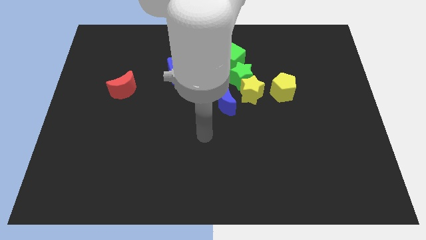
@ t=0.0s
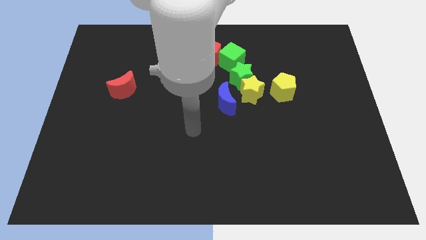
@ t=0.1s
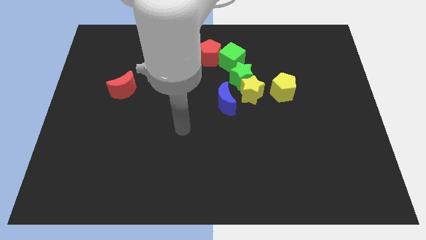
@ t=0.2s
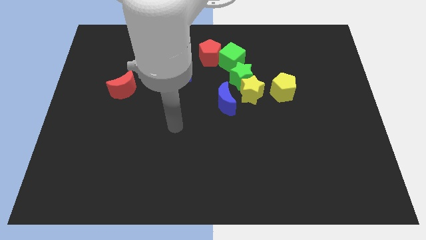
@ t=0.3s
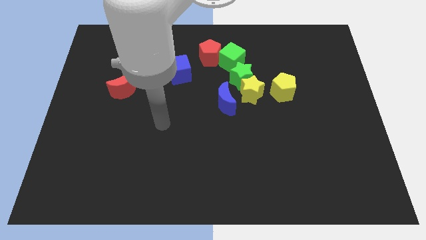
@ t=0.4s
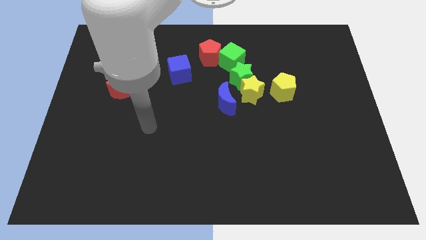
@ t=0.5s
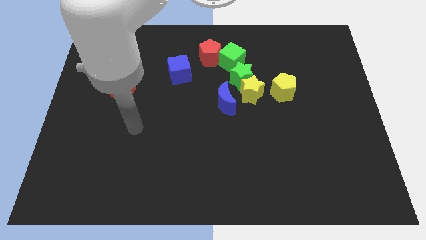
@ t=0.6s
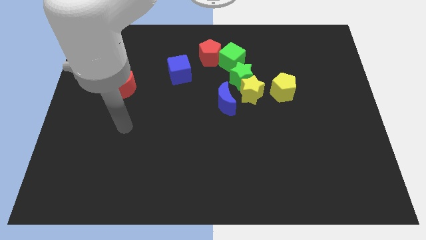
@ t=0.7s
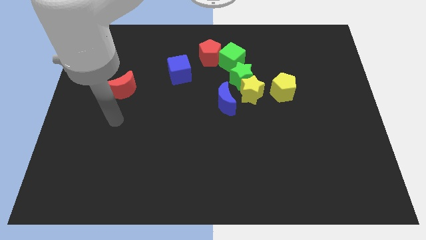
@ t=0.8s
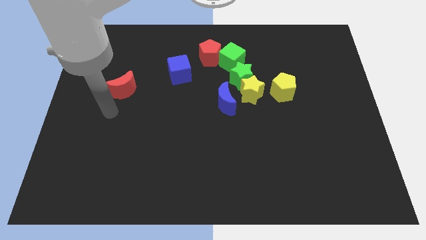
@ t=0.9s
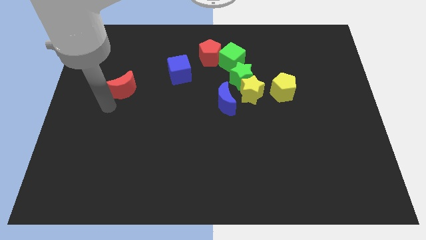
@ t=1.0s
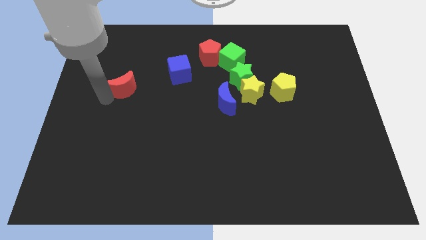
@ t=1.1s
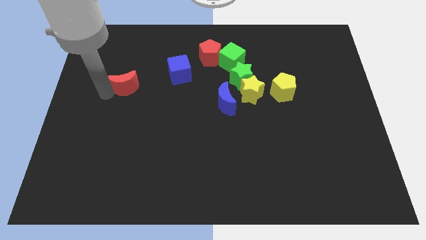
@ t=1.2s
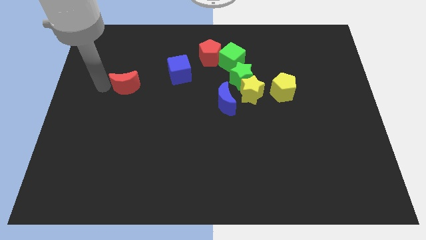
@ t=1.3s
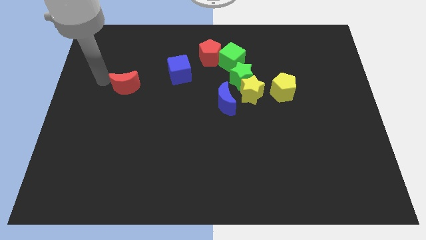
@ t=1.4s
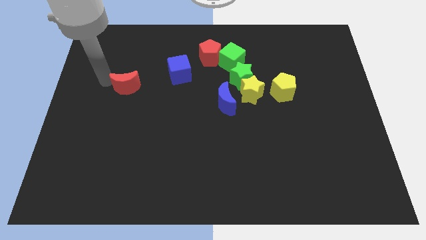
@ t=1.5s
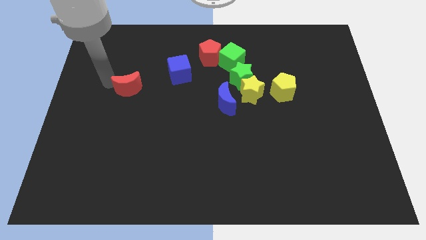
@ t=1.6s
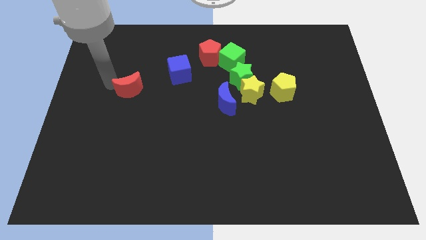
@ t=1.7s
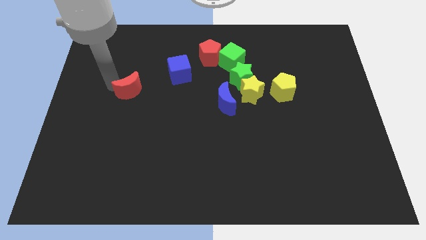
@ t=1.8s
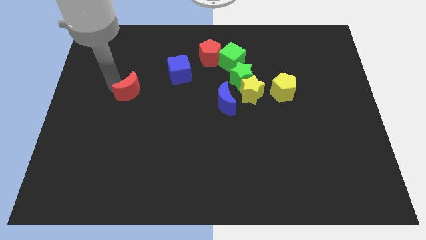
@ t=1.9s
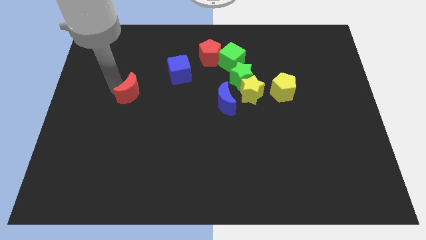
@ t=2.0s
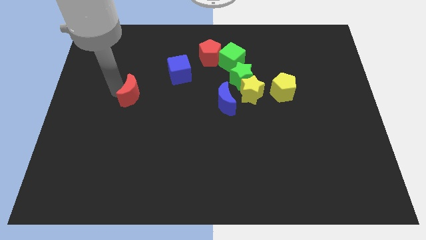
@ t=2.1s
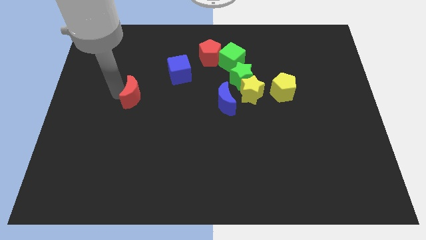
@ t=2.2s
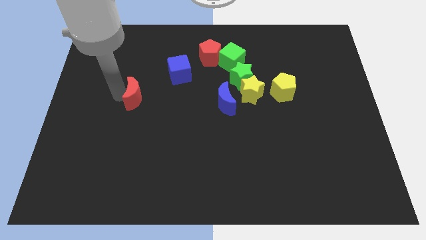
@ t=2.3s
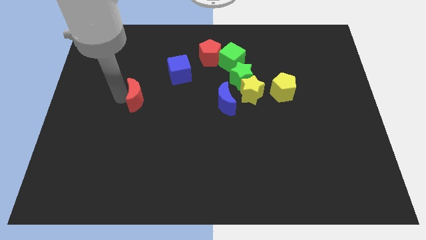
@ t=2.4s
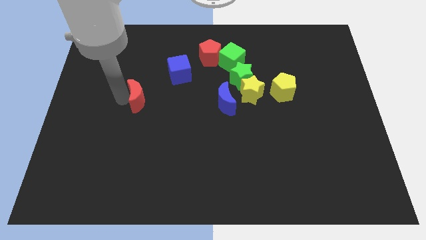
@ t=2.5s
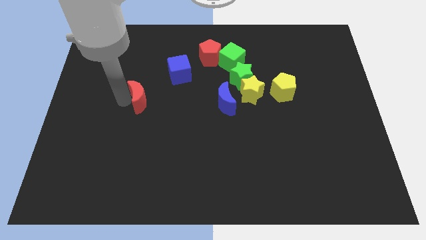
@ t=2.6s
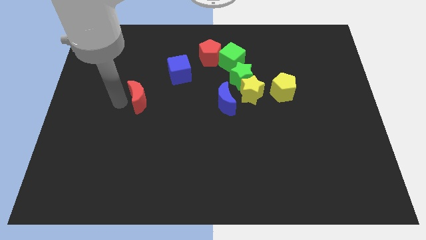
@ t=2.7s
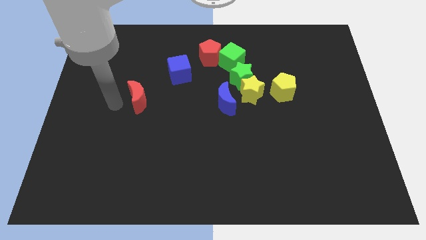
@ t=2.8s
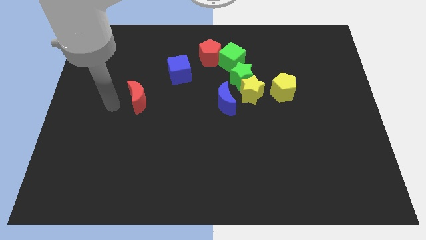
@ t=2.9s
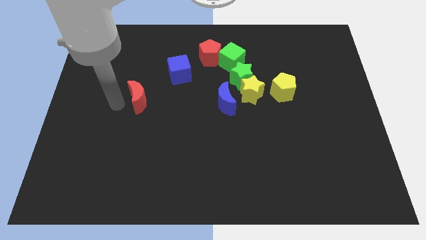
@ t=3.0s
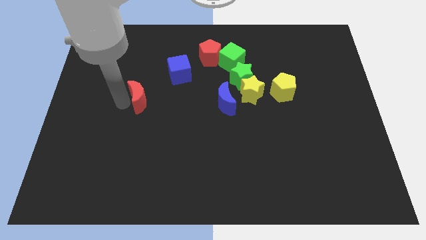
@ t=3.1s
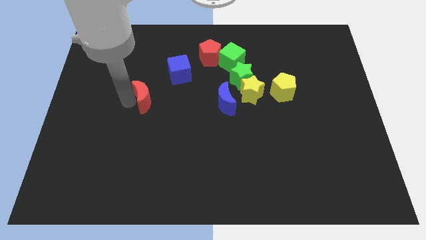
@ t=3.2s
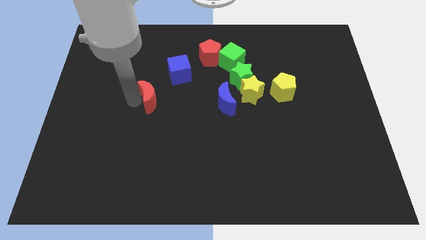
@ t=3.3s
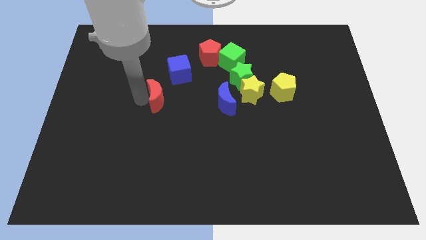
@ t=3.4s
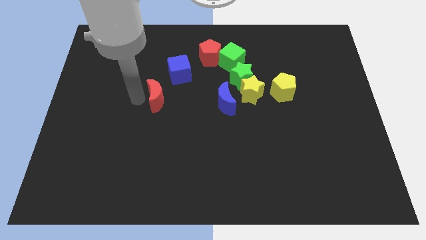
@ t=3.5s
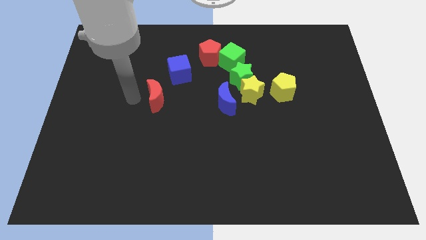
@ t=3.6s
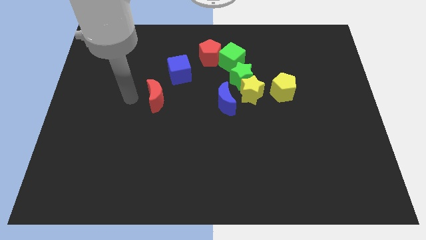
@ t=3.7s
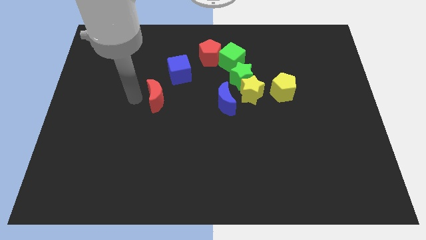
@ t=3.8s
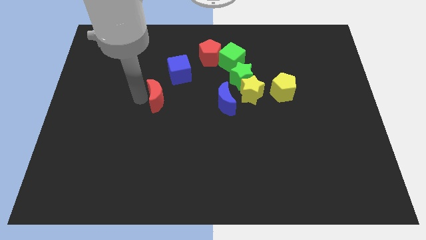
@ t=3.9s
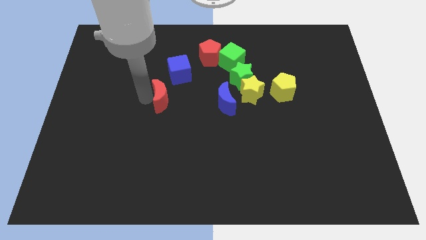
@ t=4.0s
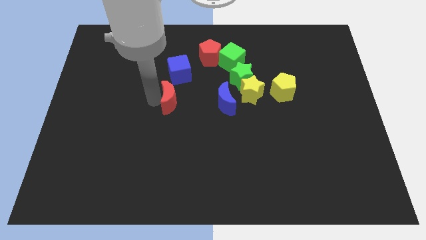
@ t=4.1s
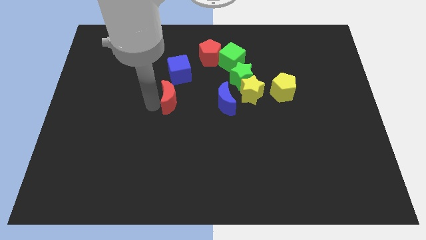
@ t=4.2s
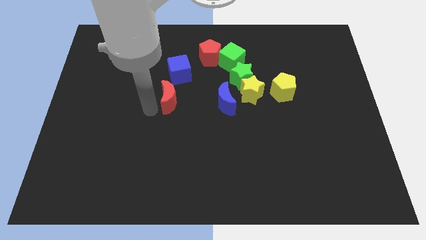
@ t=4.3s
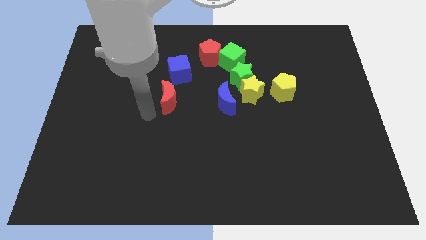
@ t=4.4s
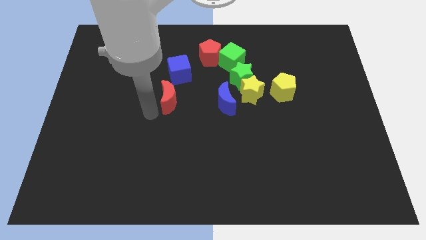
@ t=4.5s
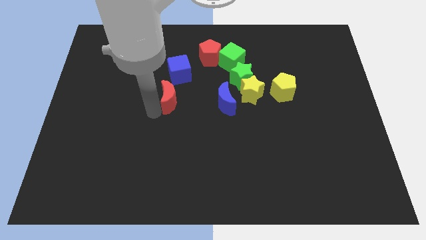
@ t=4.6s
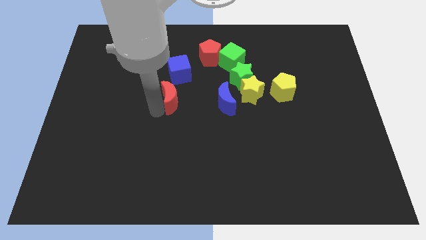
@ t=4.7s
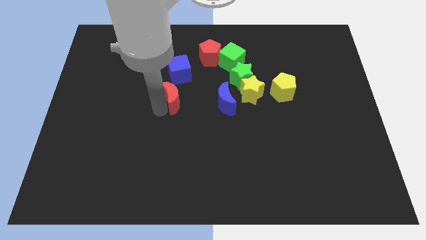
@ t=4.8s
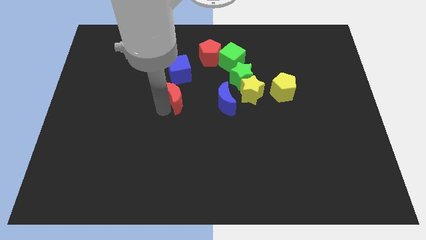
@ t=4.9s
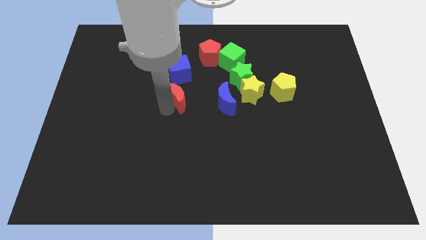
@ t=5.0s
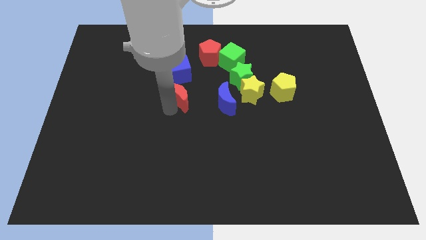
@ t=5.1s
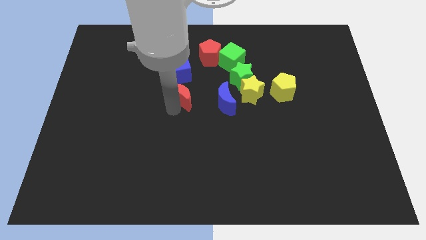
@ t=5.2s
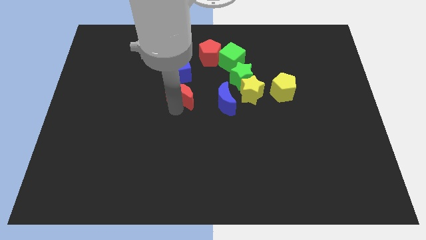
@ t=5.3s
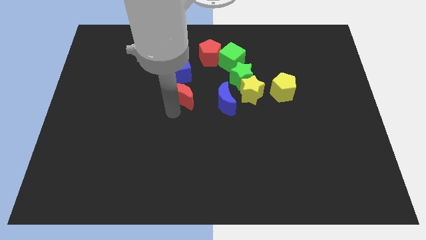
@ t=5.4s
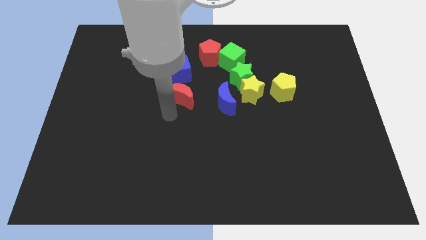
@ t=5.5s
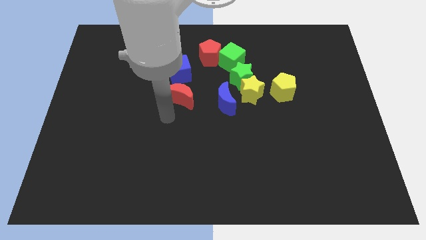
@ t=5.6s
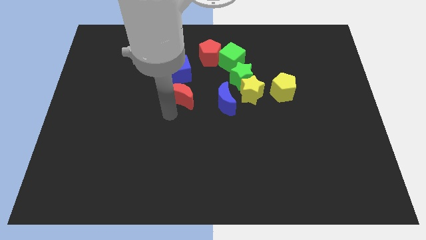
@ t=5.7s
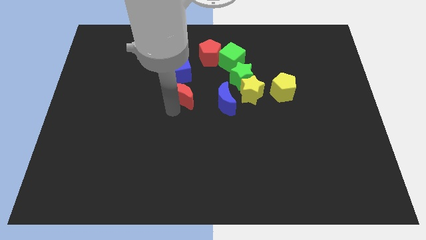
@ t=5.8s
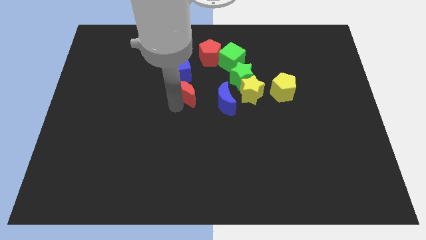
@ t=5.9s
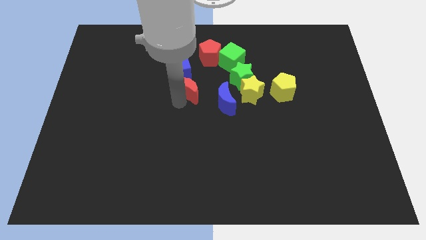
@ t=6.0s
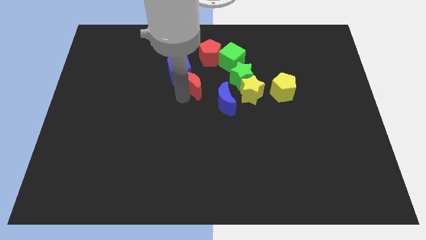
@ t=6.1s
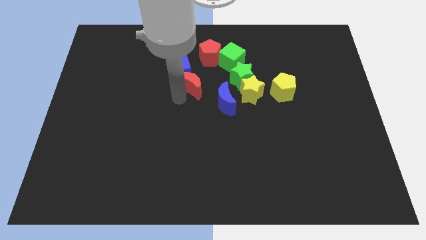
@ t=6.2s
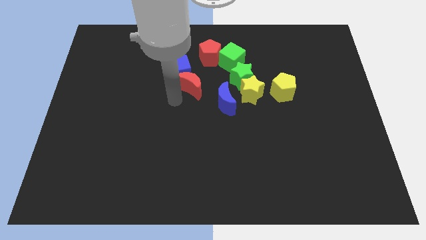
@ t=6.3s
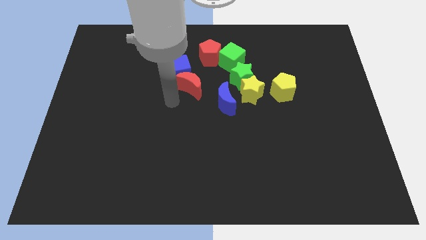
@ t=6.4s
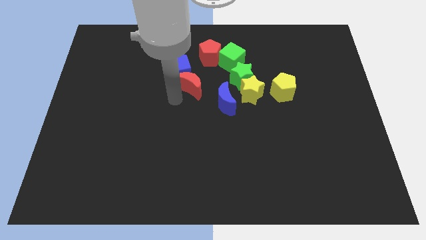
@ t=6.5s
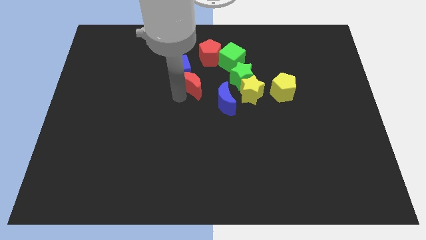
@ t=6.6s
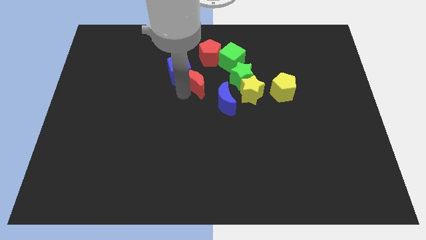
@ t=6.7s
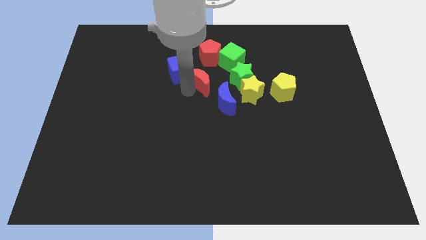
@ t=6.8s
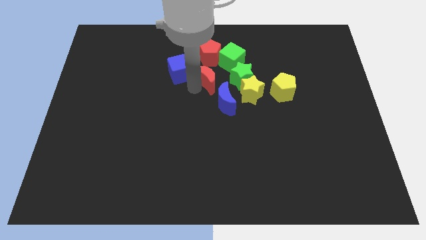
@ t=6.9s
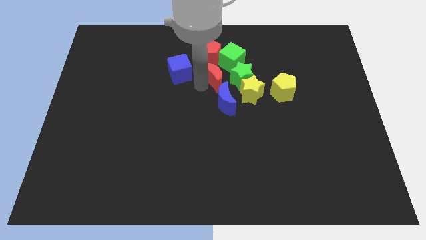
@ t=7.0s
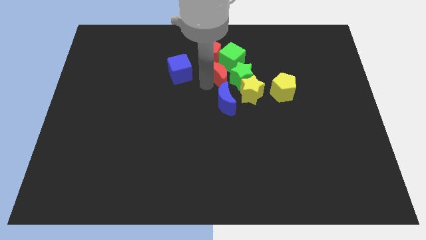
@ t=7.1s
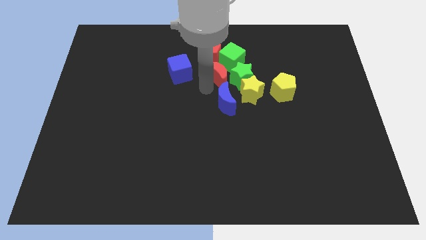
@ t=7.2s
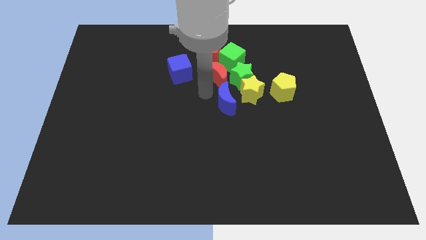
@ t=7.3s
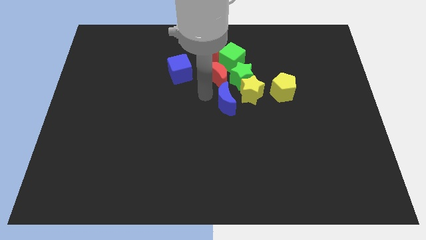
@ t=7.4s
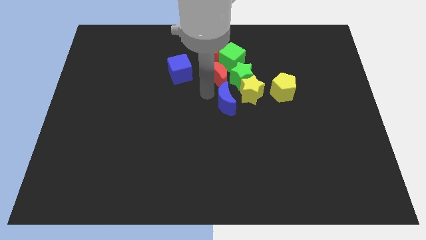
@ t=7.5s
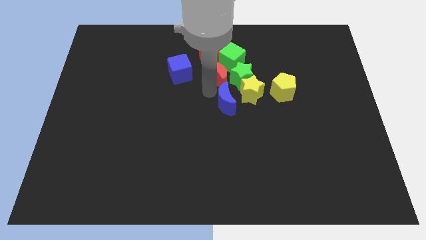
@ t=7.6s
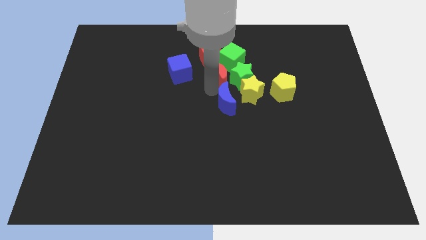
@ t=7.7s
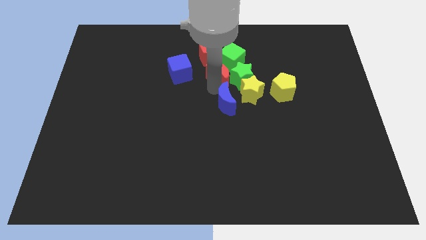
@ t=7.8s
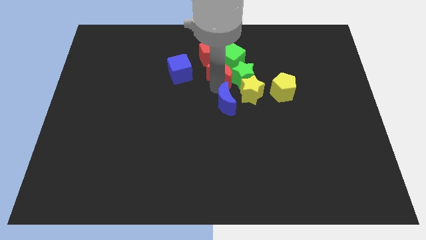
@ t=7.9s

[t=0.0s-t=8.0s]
move the red moon towards the green cube

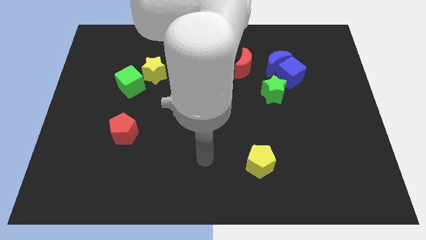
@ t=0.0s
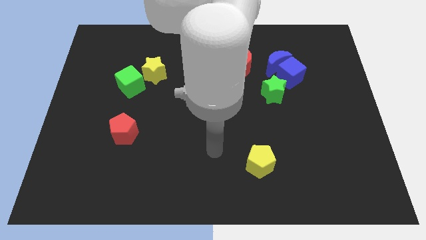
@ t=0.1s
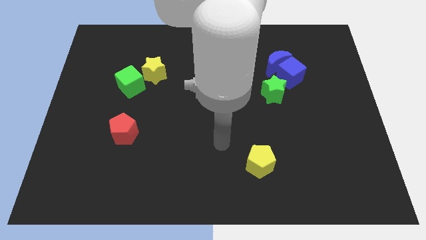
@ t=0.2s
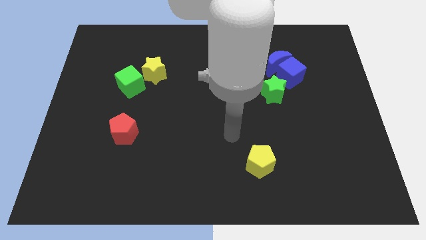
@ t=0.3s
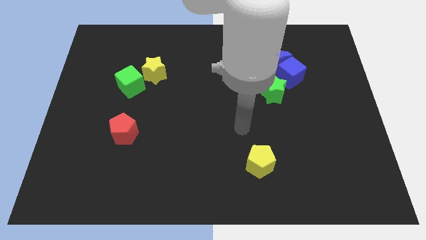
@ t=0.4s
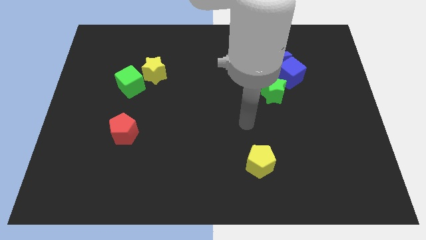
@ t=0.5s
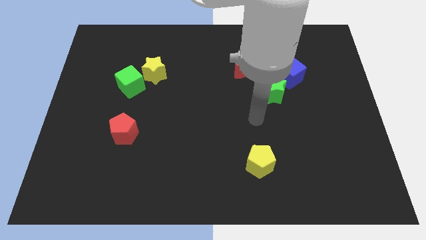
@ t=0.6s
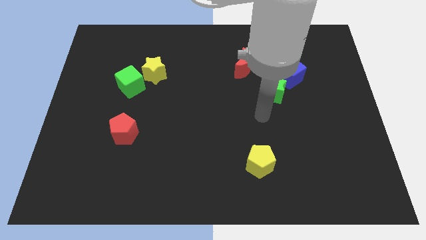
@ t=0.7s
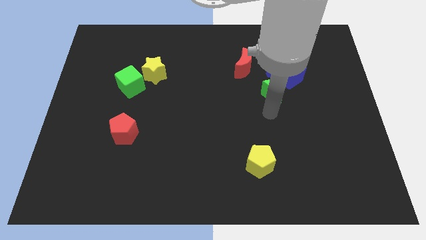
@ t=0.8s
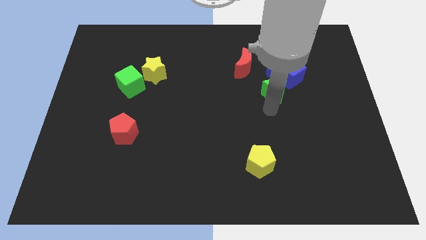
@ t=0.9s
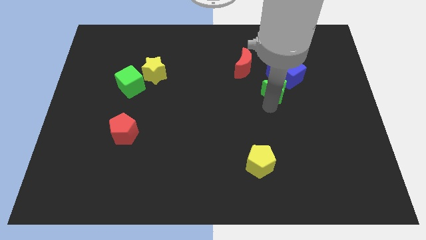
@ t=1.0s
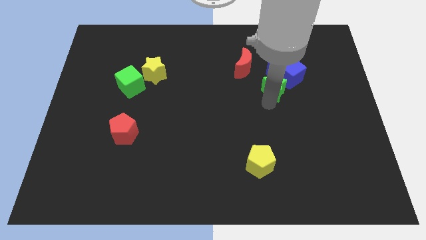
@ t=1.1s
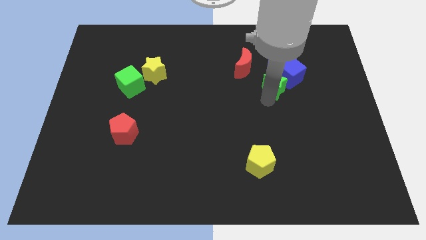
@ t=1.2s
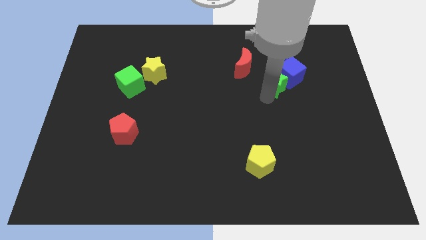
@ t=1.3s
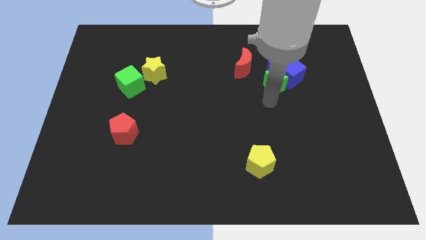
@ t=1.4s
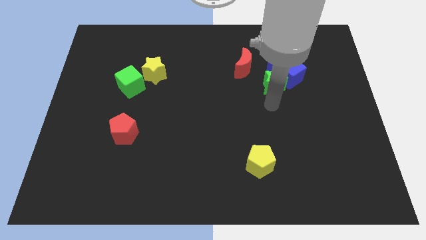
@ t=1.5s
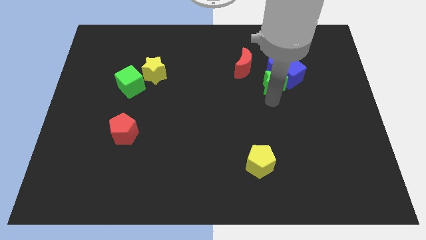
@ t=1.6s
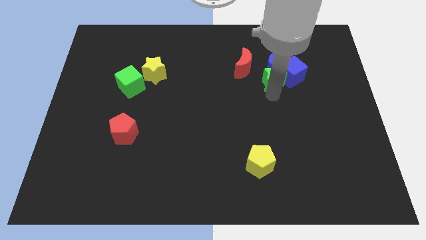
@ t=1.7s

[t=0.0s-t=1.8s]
push the green star next to the blue moon
